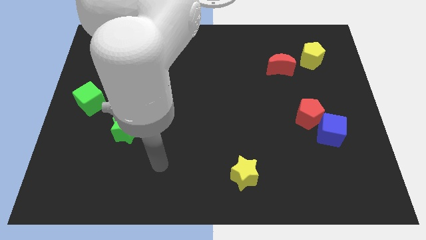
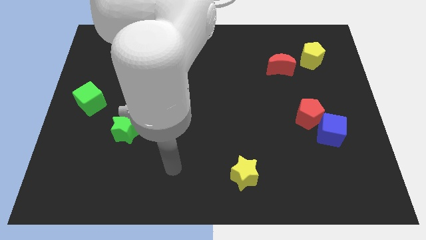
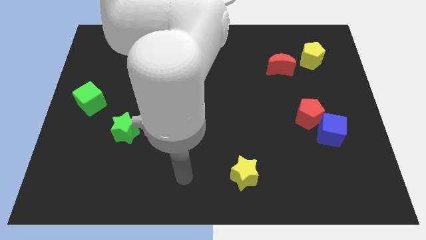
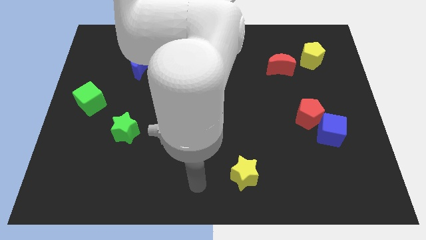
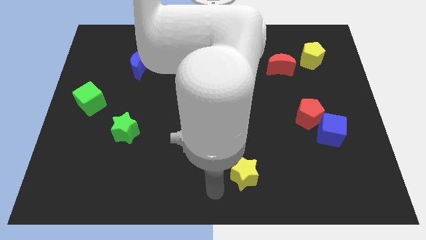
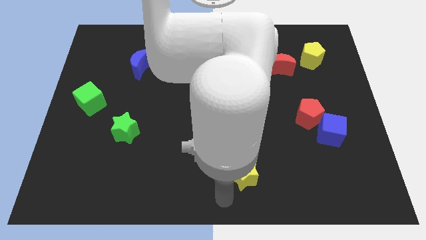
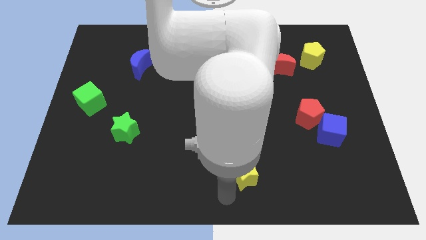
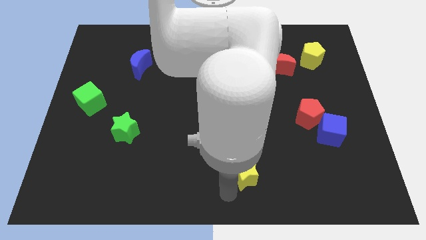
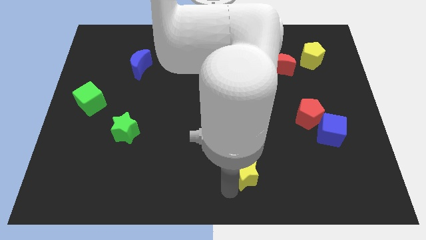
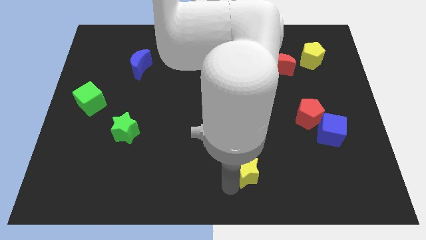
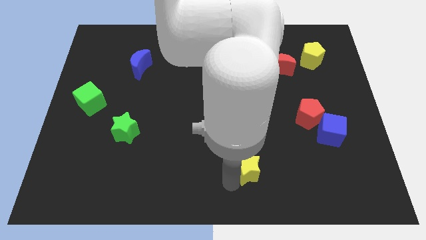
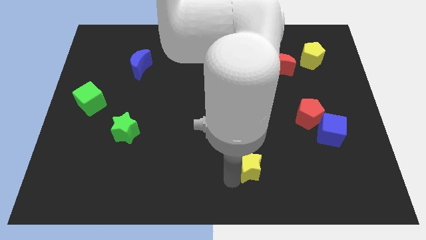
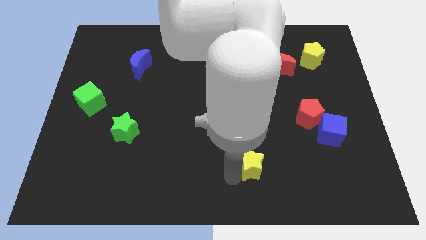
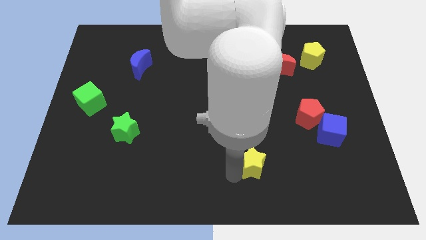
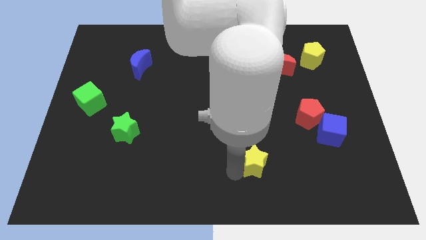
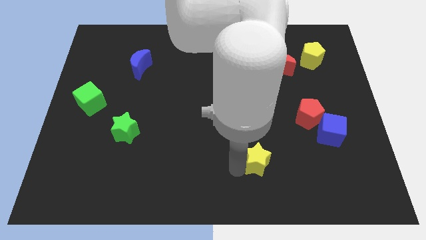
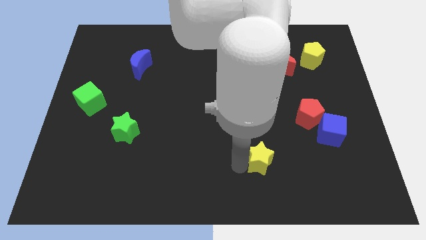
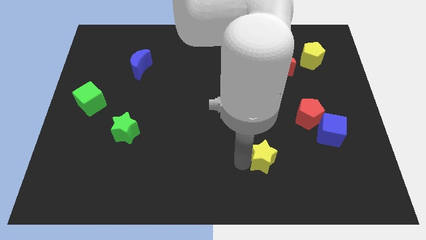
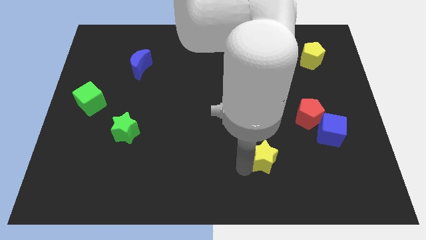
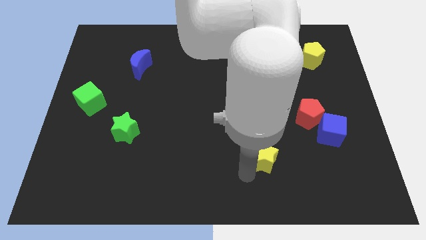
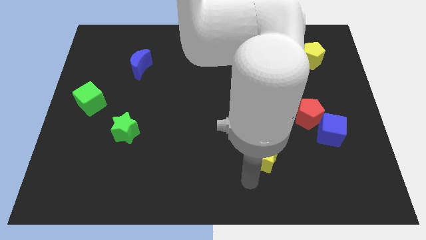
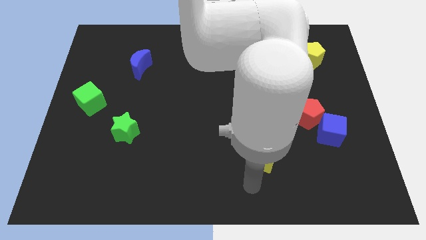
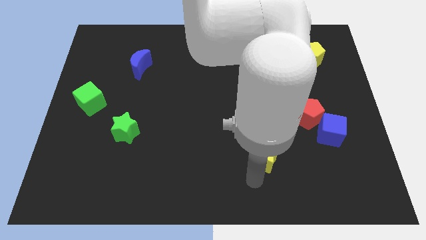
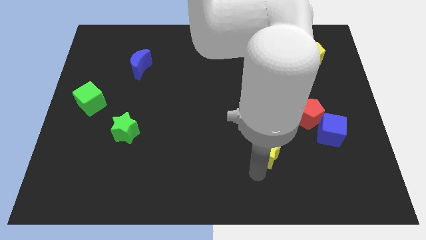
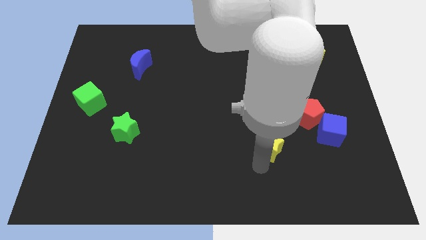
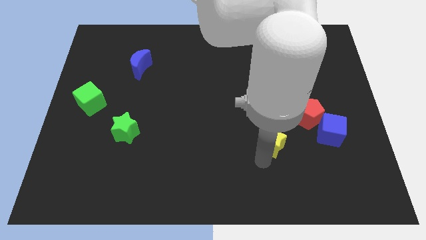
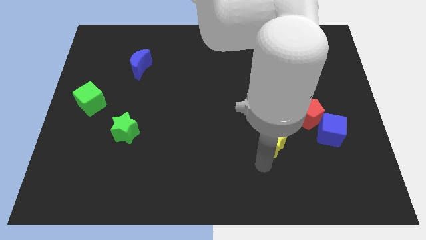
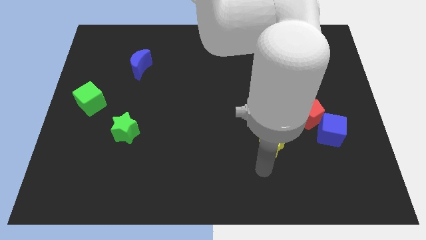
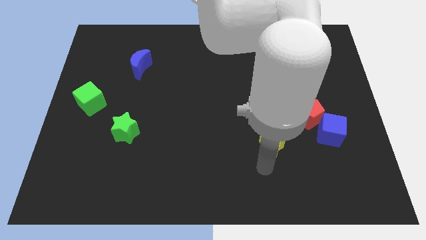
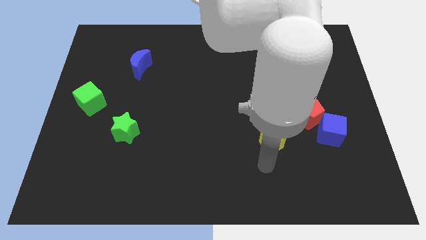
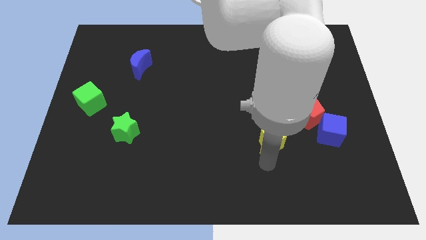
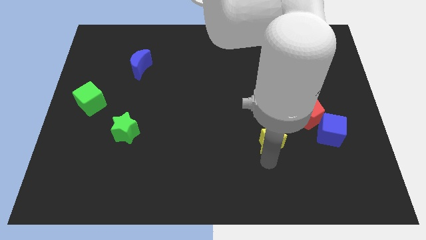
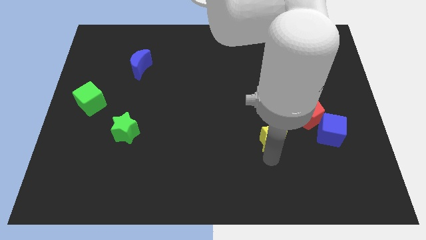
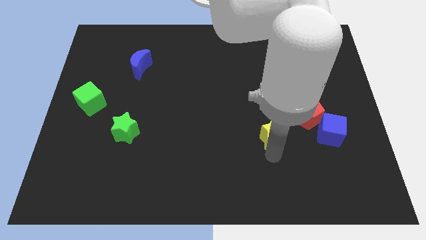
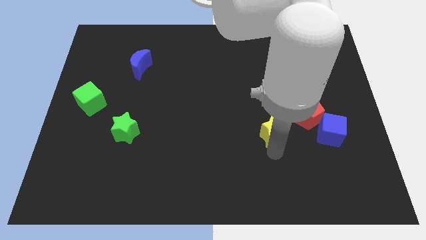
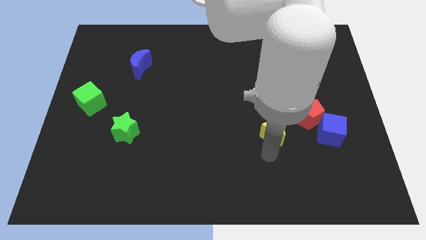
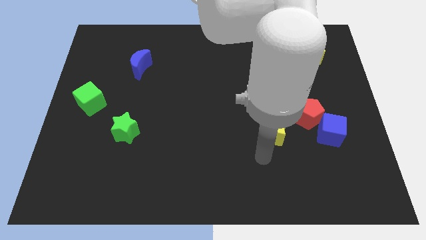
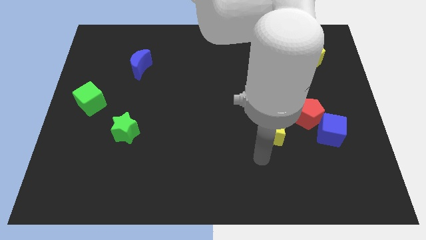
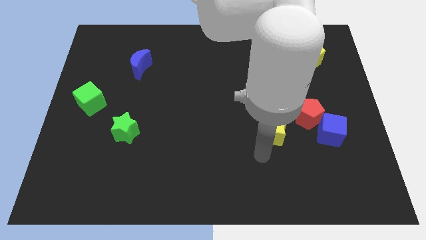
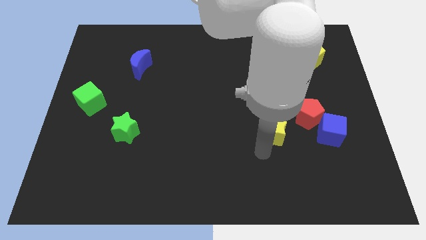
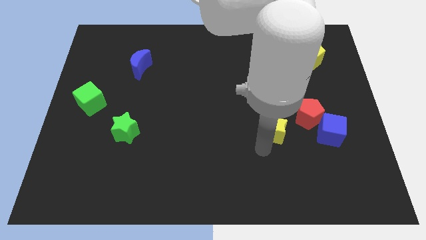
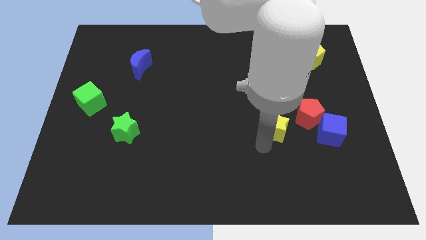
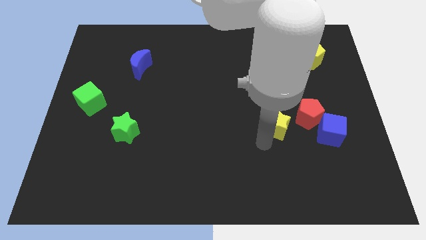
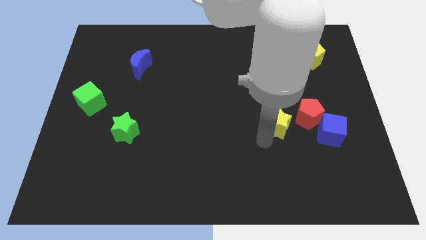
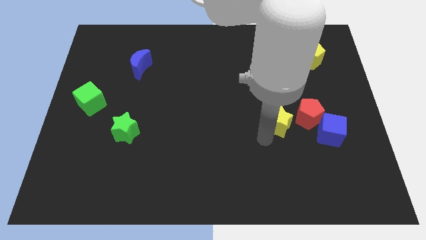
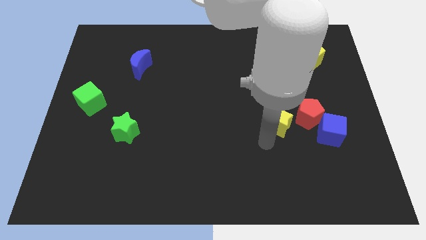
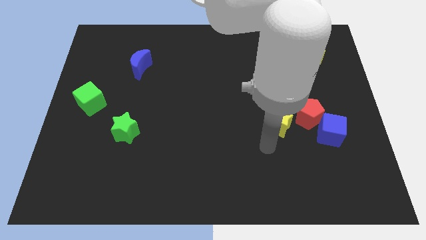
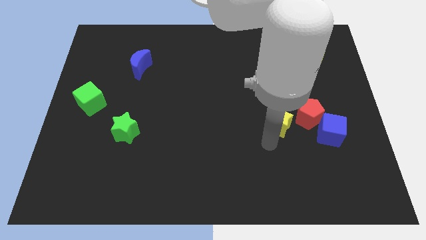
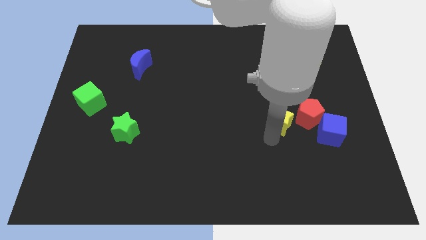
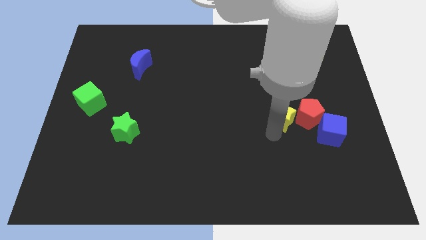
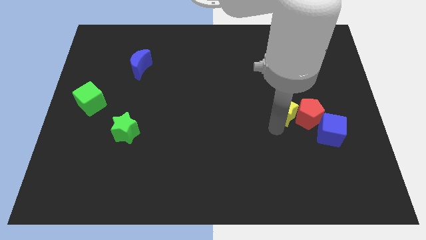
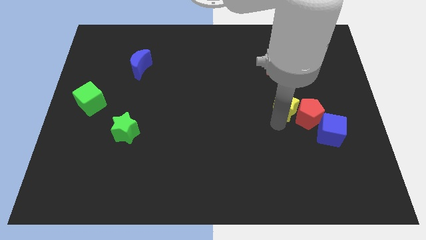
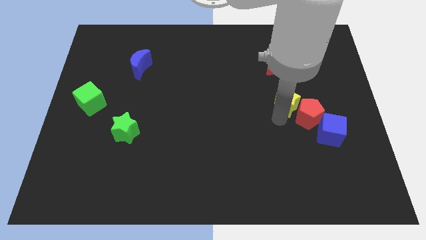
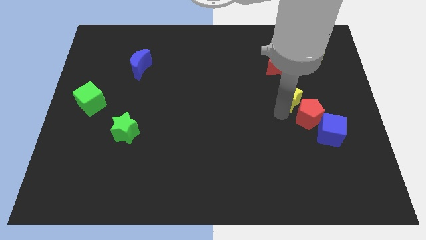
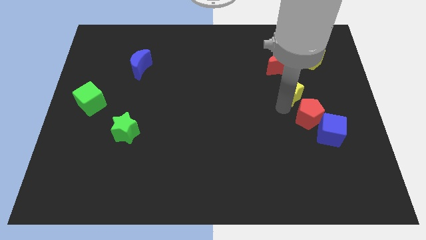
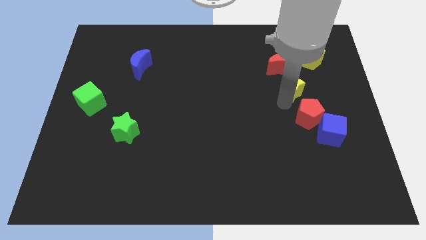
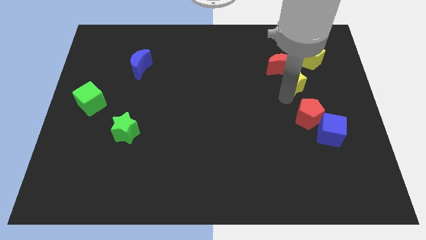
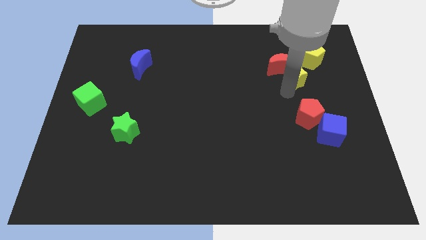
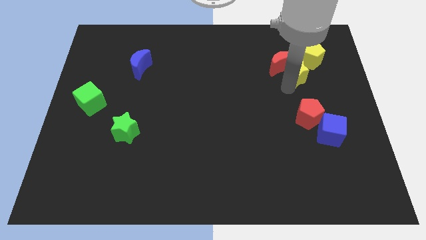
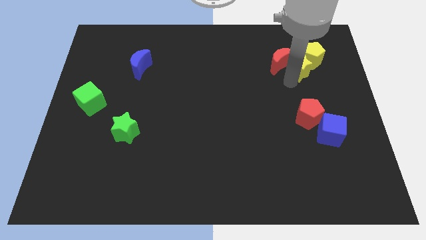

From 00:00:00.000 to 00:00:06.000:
put the yellow star towards the yellow pentagon

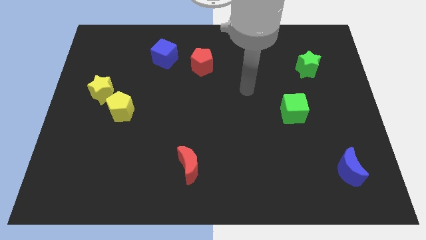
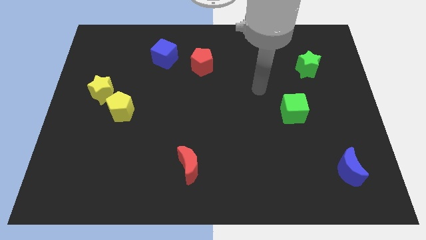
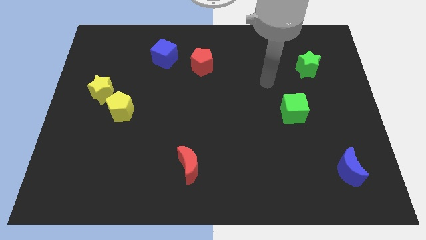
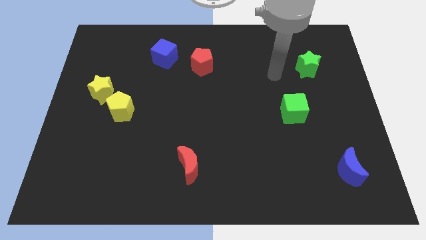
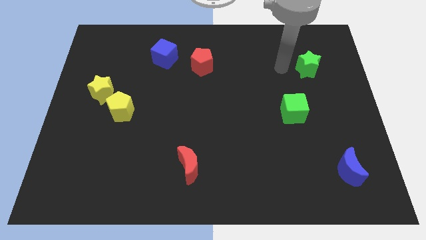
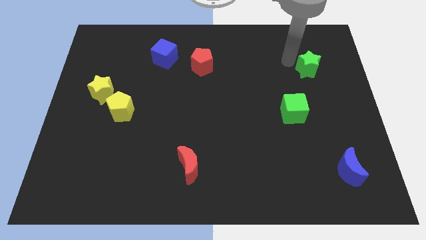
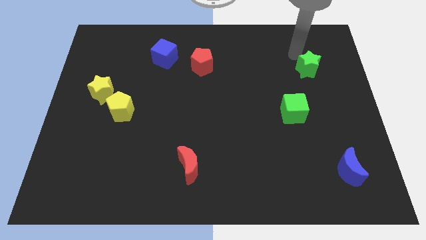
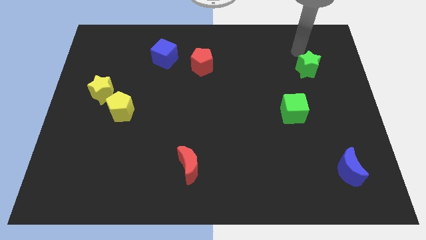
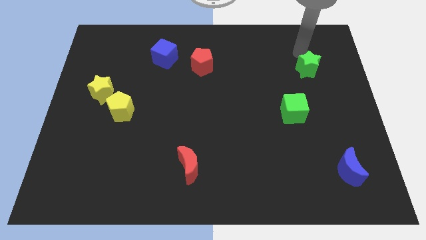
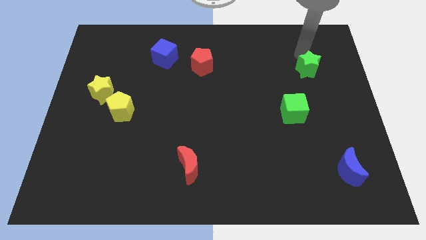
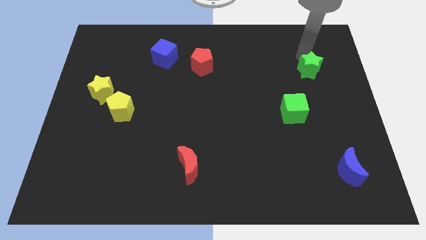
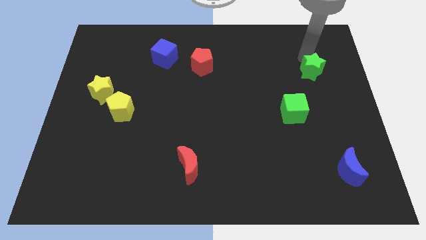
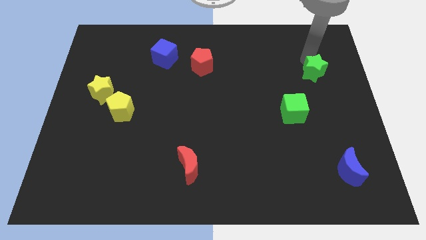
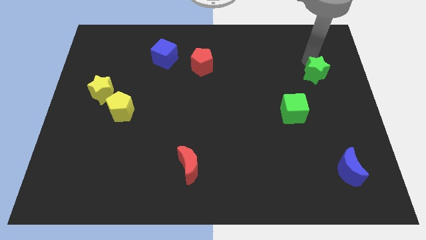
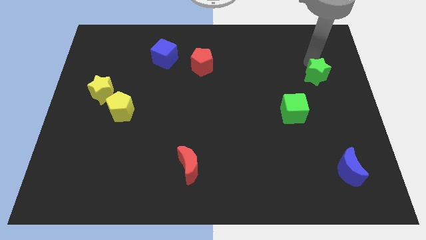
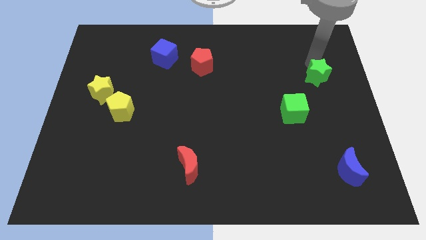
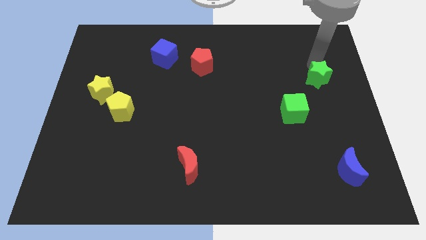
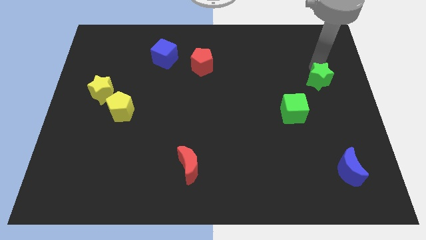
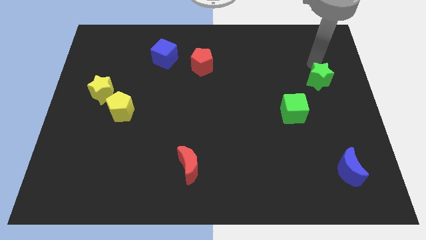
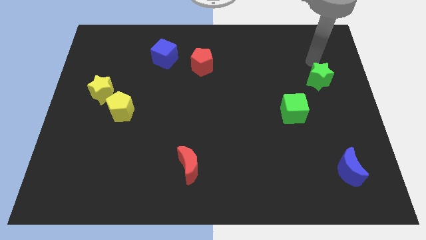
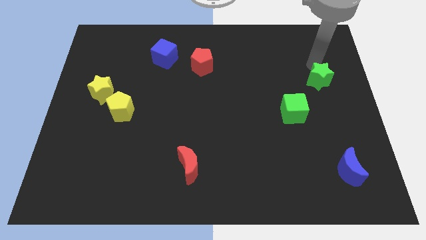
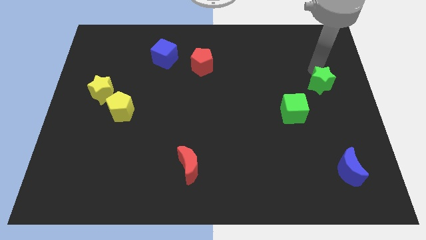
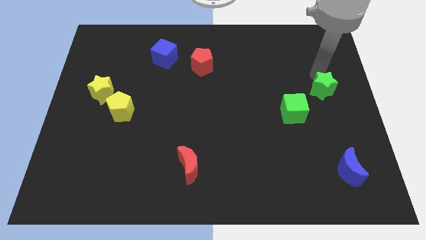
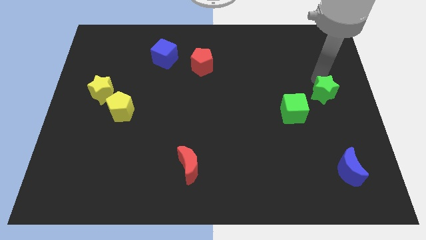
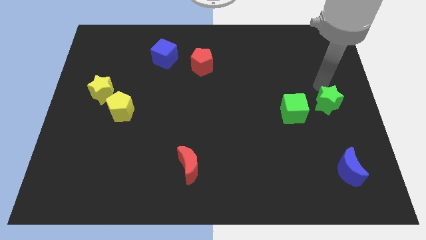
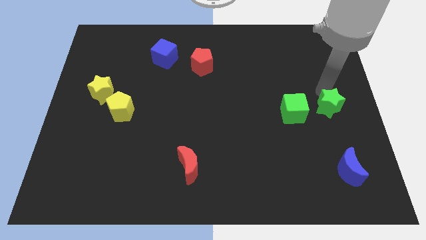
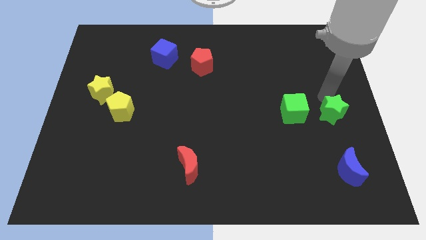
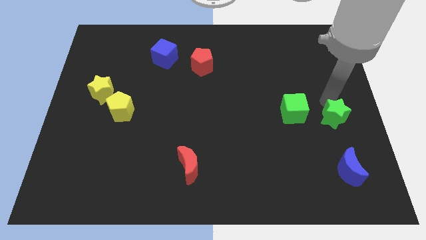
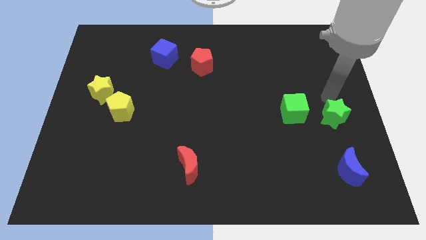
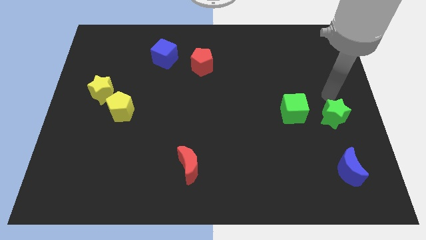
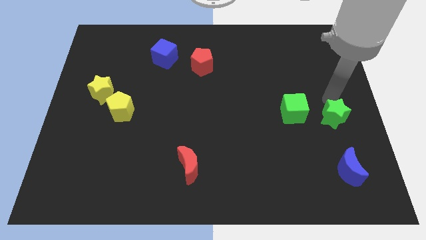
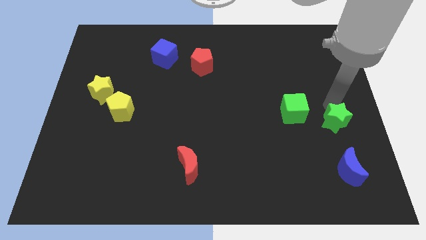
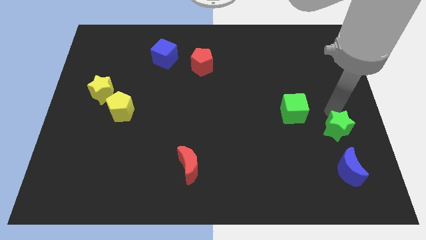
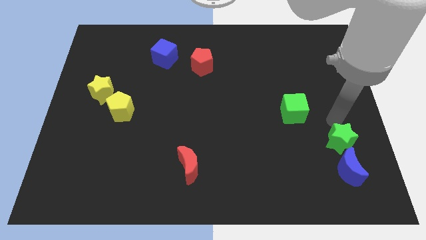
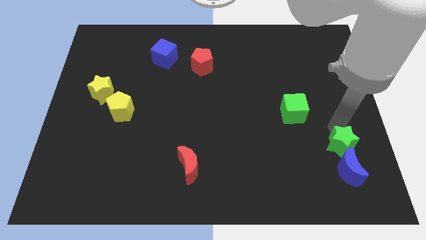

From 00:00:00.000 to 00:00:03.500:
slide the green star close to the blue moon
